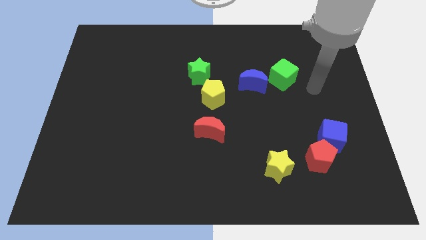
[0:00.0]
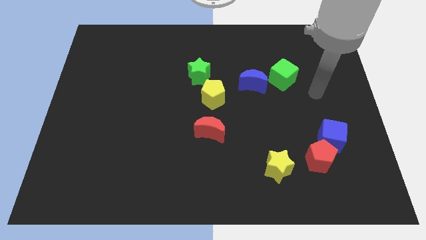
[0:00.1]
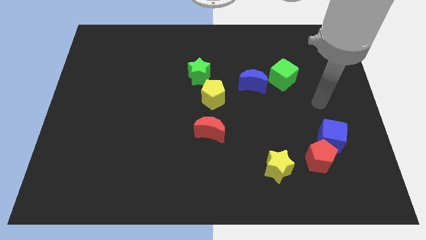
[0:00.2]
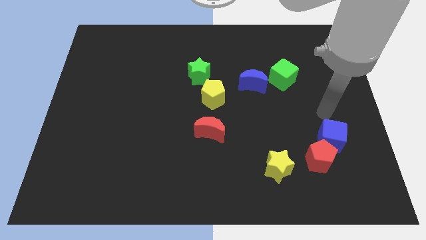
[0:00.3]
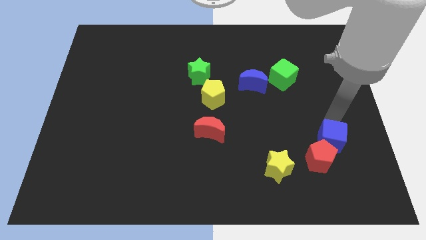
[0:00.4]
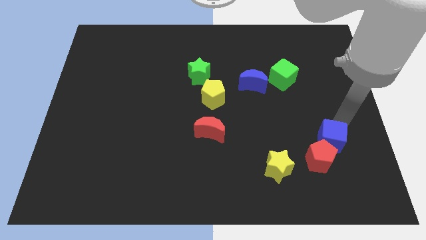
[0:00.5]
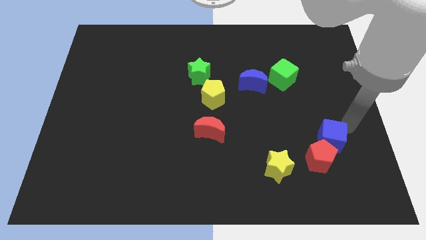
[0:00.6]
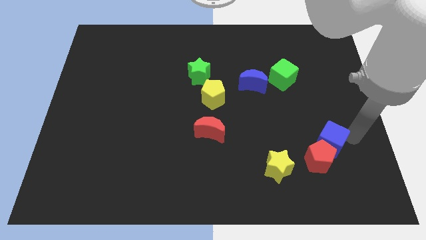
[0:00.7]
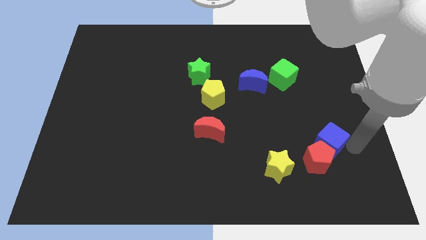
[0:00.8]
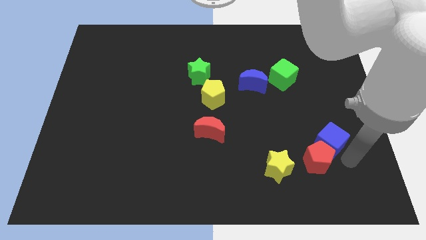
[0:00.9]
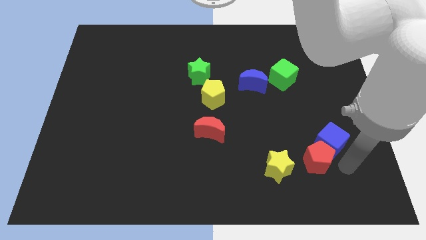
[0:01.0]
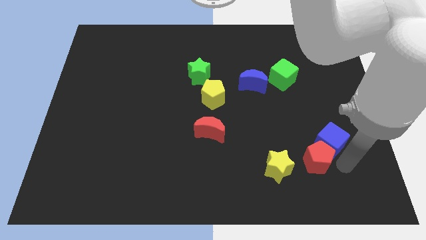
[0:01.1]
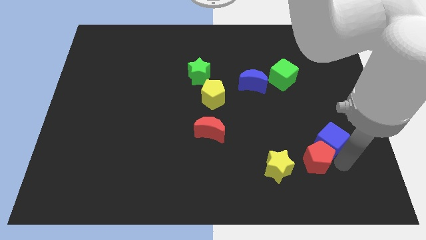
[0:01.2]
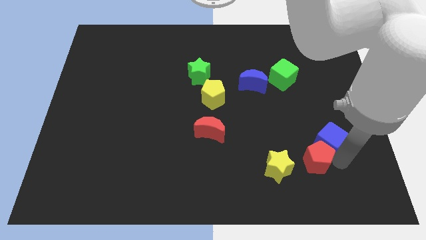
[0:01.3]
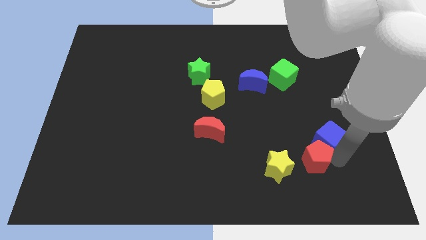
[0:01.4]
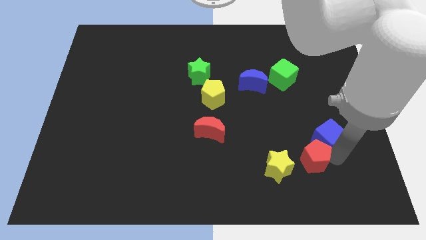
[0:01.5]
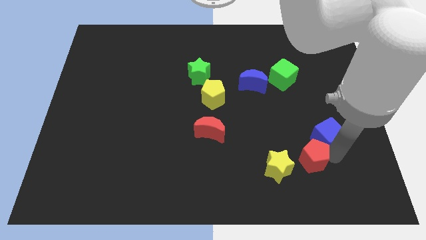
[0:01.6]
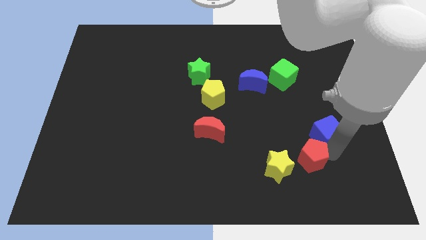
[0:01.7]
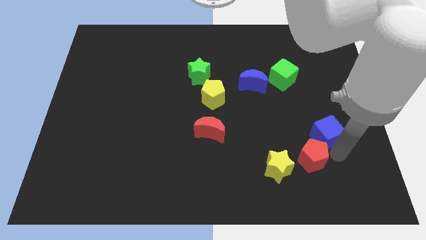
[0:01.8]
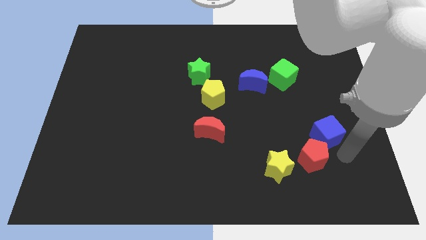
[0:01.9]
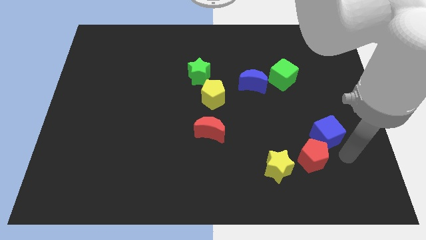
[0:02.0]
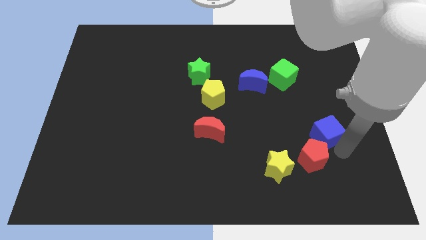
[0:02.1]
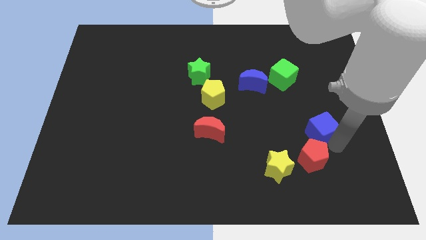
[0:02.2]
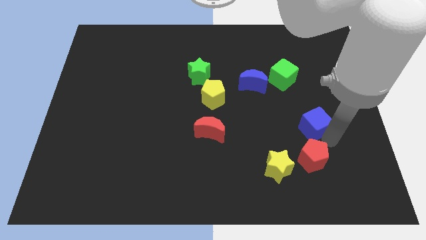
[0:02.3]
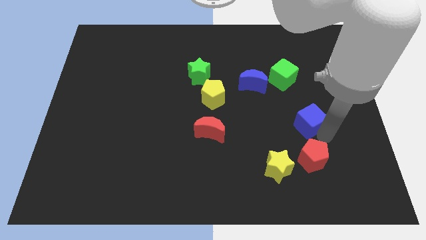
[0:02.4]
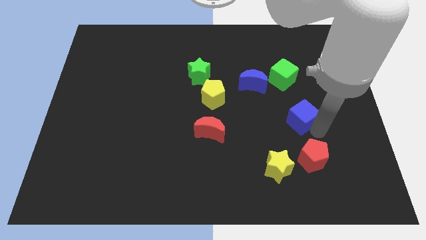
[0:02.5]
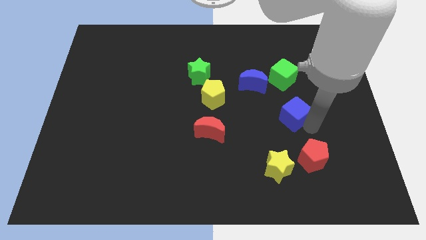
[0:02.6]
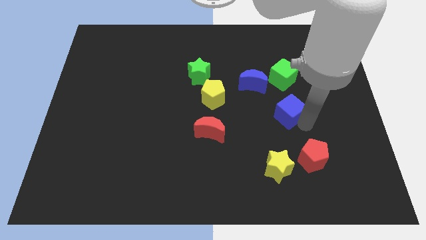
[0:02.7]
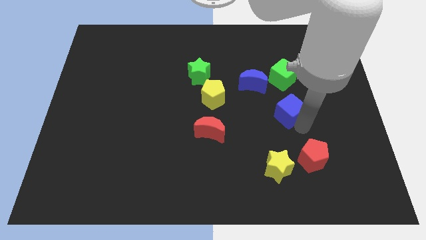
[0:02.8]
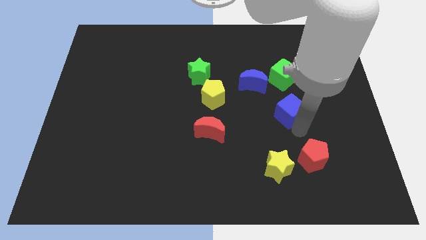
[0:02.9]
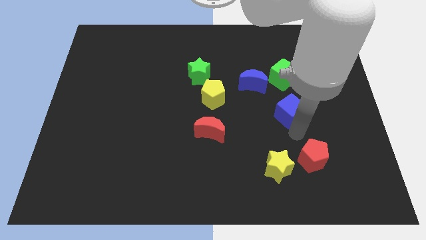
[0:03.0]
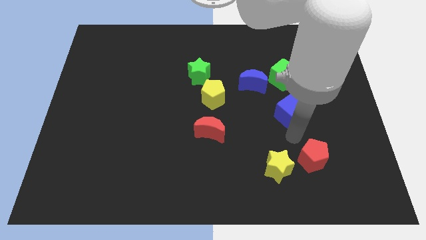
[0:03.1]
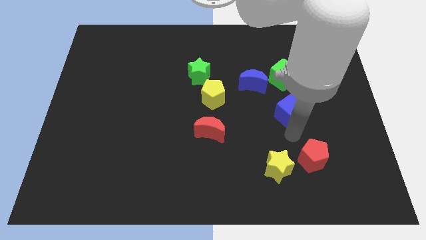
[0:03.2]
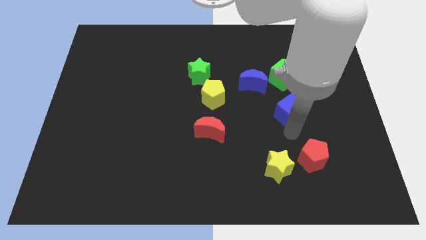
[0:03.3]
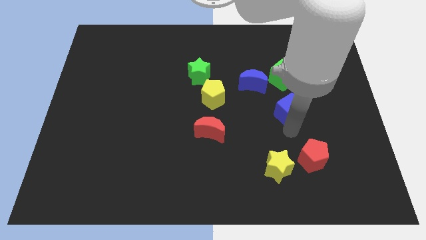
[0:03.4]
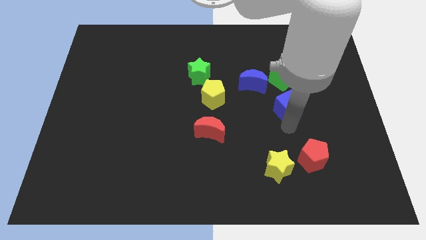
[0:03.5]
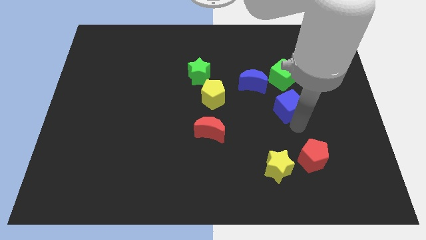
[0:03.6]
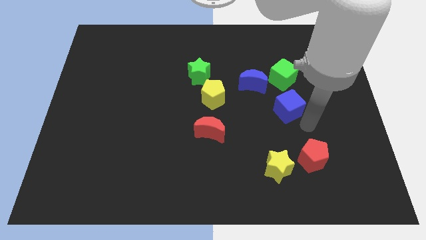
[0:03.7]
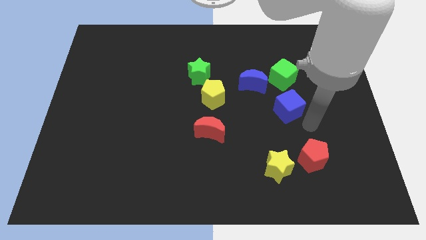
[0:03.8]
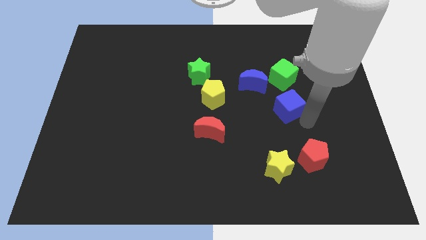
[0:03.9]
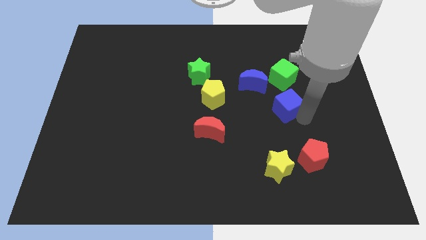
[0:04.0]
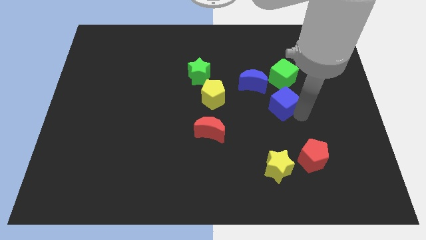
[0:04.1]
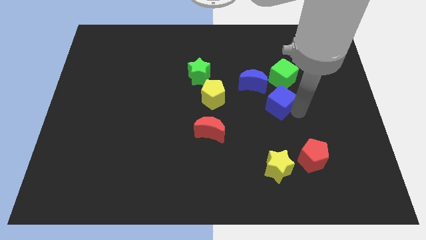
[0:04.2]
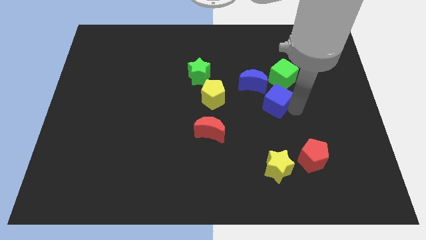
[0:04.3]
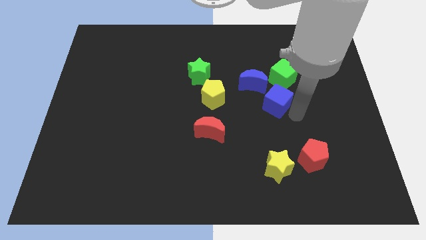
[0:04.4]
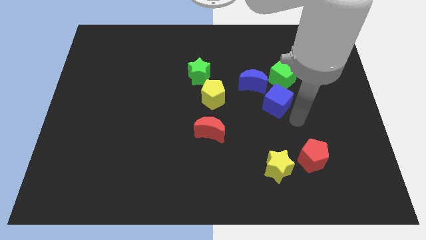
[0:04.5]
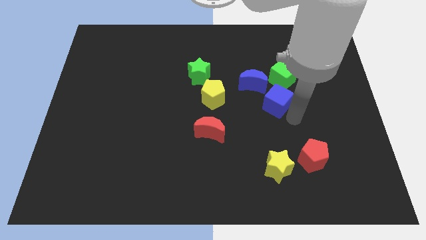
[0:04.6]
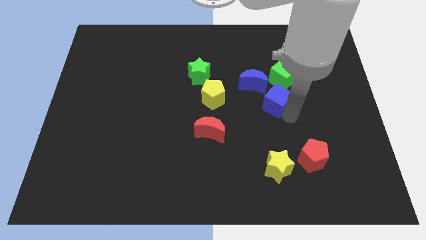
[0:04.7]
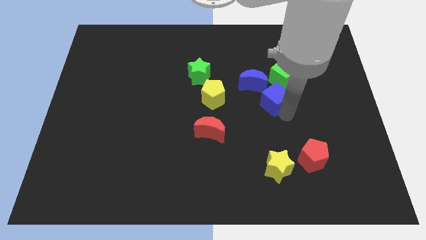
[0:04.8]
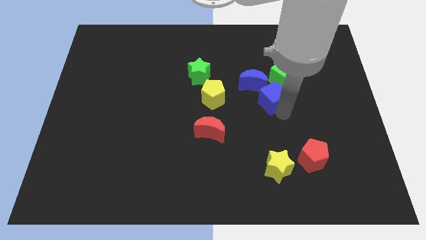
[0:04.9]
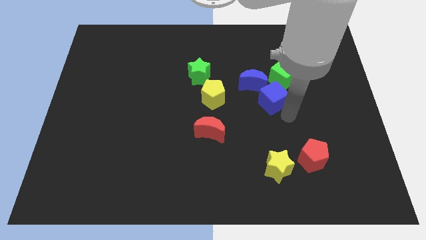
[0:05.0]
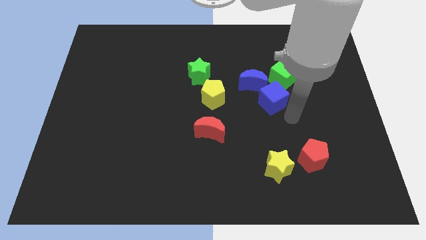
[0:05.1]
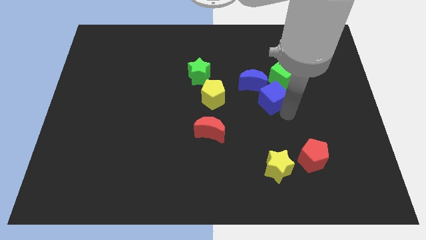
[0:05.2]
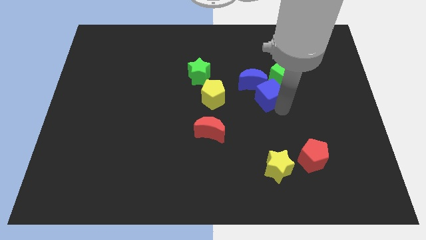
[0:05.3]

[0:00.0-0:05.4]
put the blue cube close to the blue moon

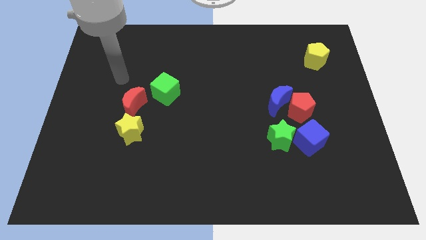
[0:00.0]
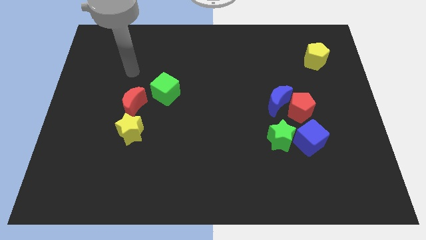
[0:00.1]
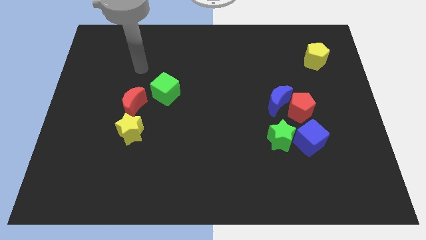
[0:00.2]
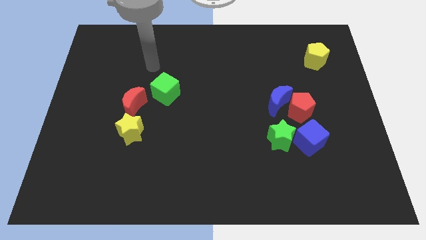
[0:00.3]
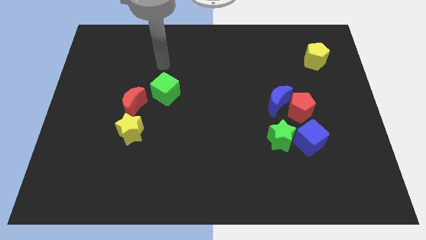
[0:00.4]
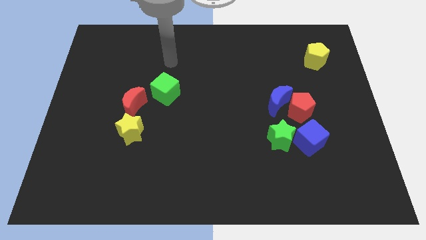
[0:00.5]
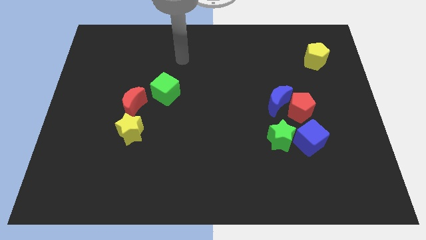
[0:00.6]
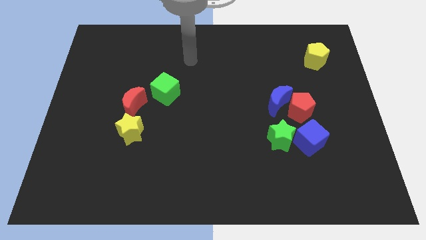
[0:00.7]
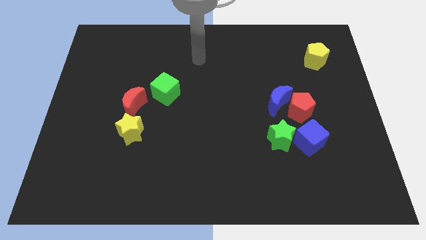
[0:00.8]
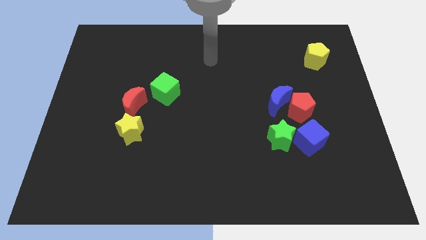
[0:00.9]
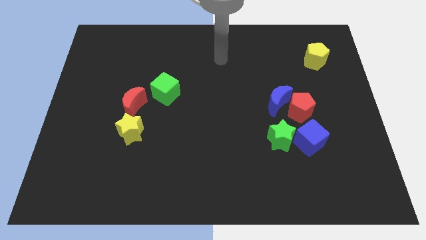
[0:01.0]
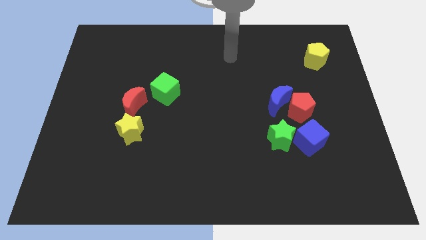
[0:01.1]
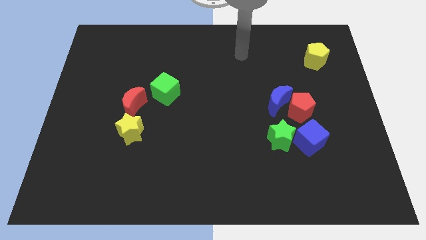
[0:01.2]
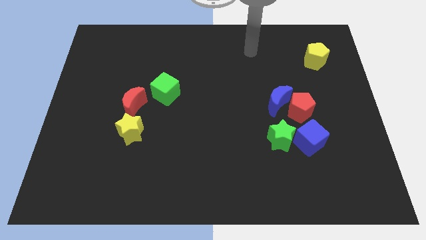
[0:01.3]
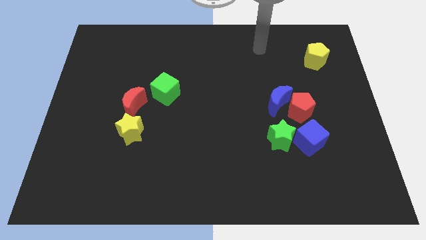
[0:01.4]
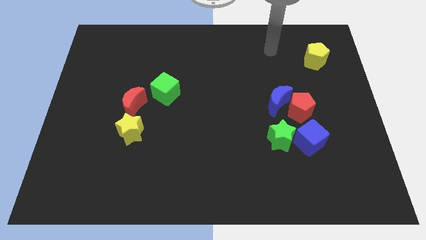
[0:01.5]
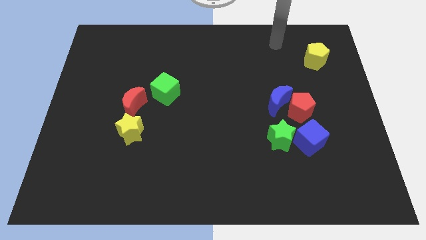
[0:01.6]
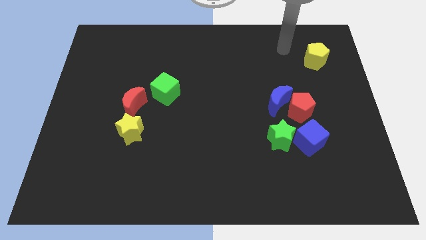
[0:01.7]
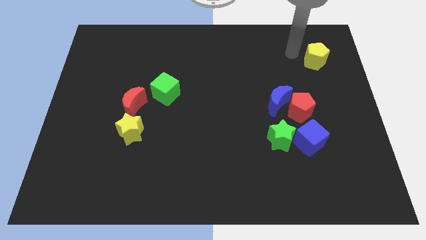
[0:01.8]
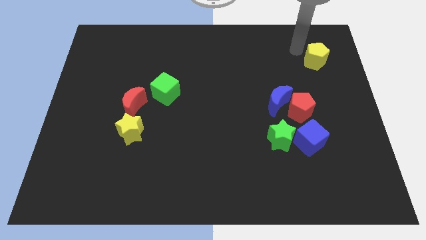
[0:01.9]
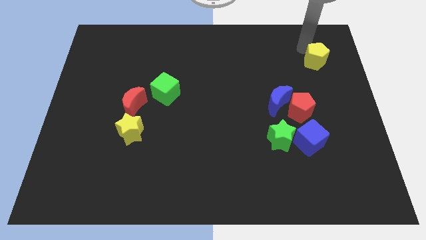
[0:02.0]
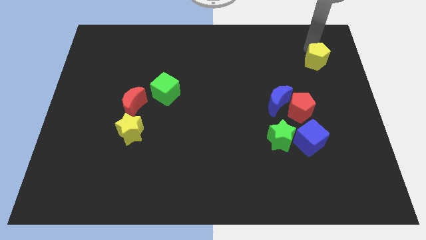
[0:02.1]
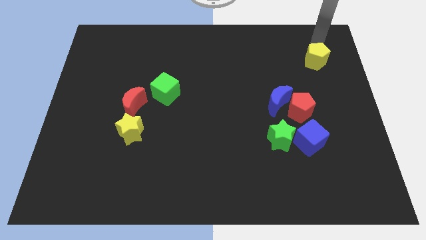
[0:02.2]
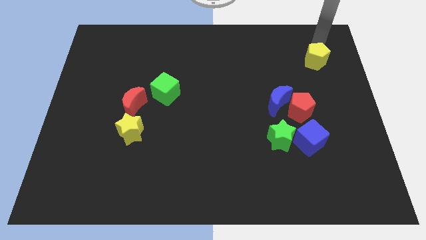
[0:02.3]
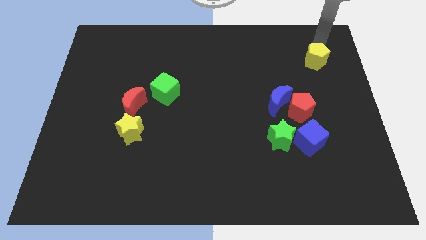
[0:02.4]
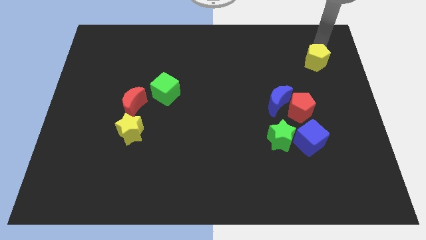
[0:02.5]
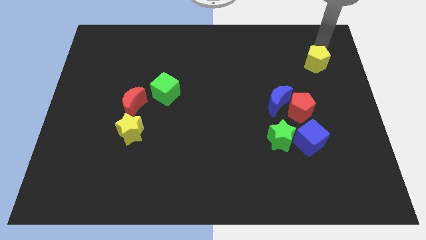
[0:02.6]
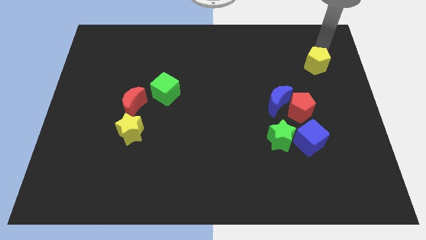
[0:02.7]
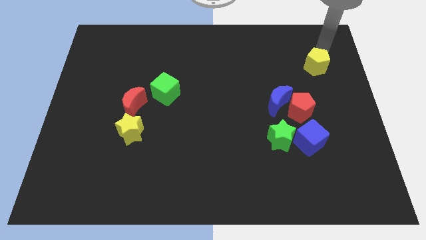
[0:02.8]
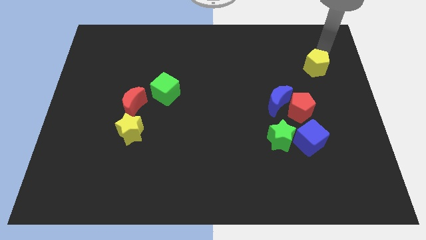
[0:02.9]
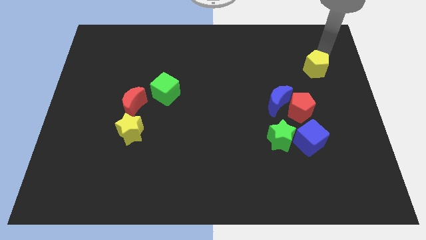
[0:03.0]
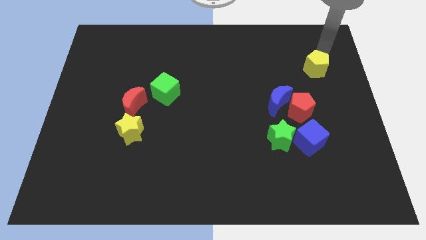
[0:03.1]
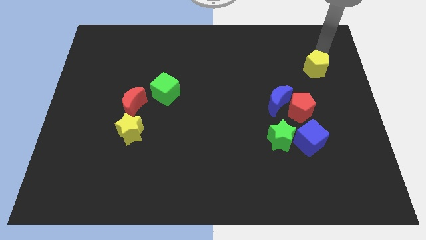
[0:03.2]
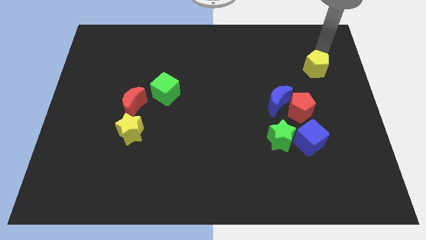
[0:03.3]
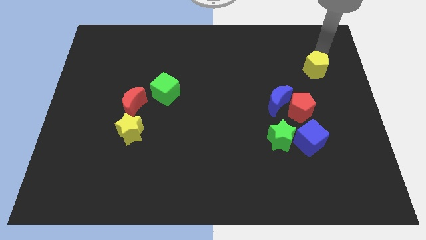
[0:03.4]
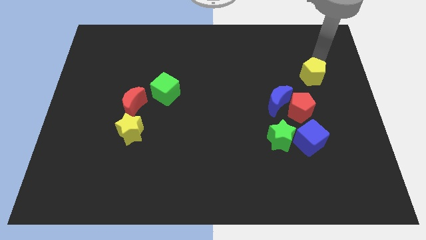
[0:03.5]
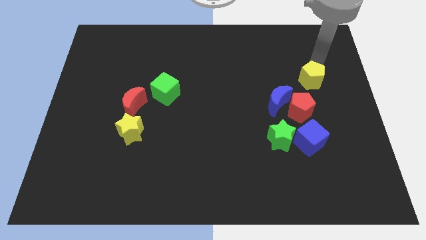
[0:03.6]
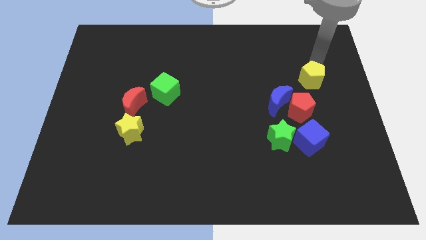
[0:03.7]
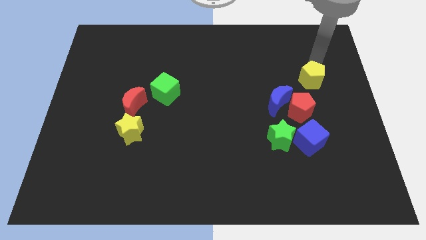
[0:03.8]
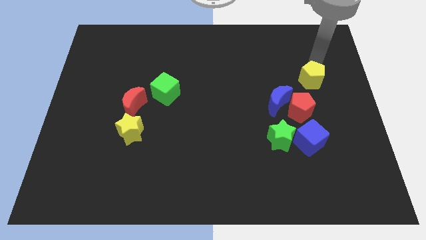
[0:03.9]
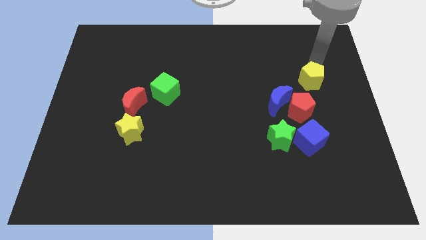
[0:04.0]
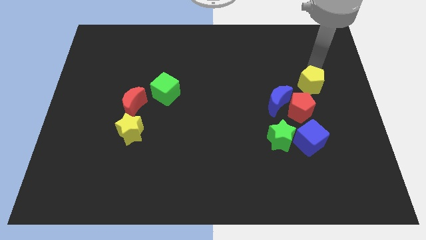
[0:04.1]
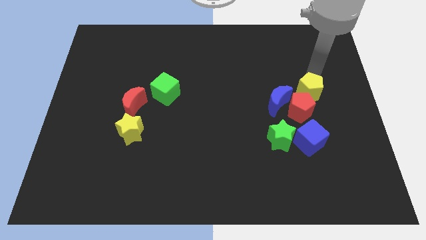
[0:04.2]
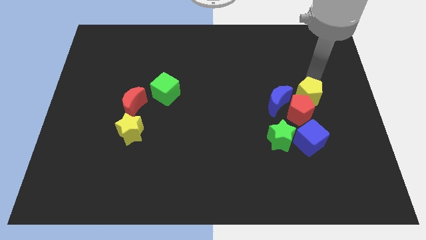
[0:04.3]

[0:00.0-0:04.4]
move the yellow pentagon close to the red pentagon
